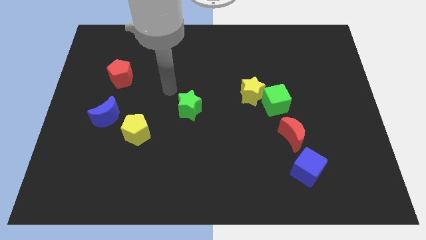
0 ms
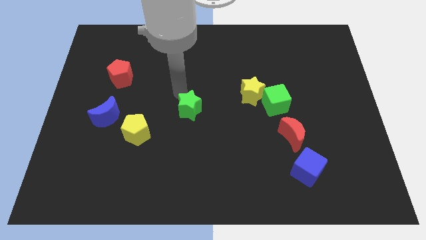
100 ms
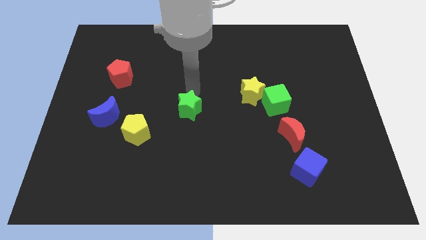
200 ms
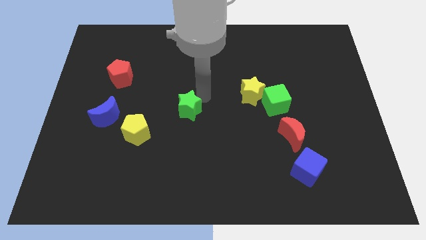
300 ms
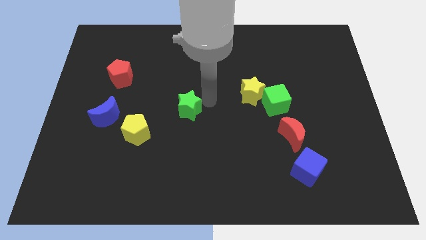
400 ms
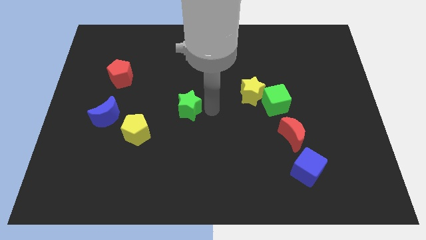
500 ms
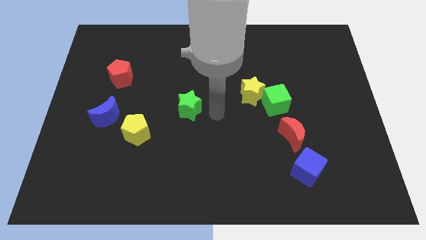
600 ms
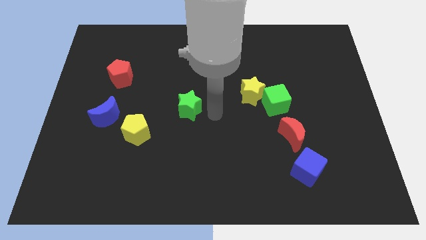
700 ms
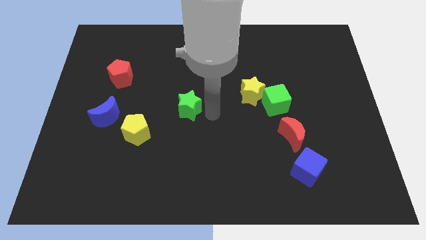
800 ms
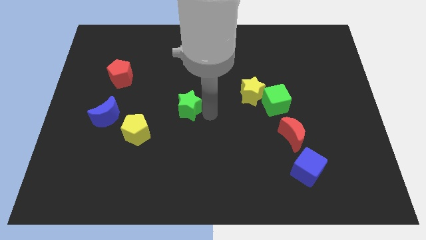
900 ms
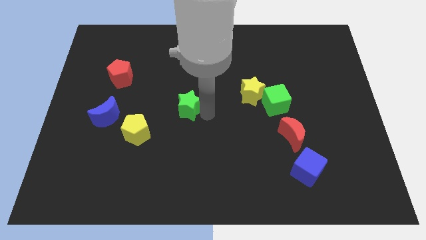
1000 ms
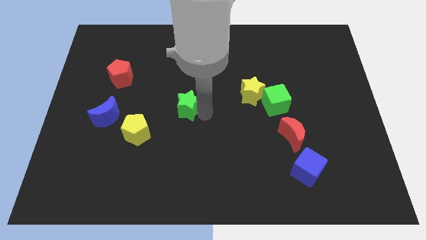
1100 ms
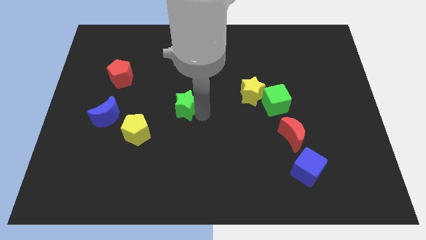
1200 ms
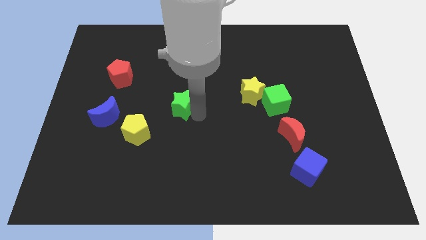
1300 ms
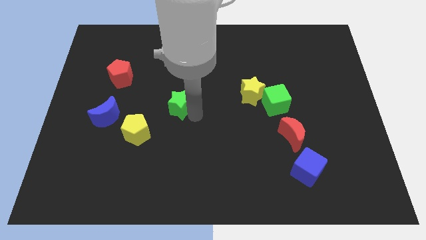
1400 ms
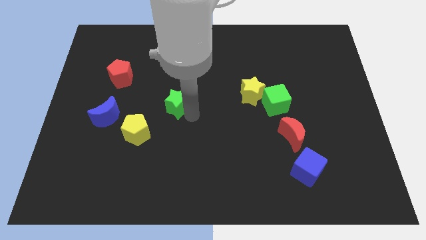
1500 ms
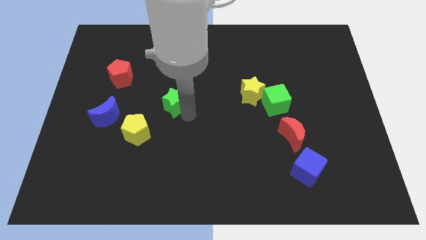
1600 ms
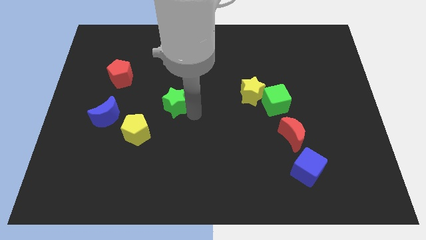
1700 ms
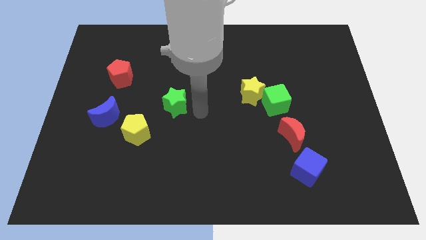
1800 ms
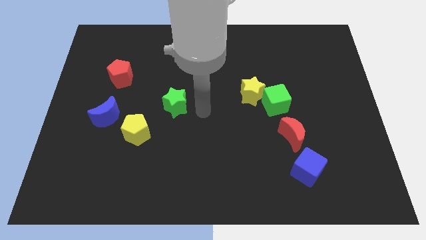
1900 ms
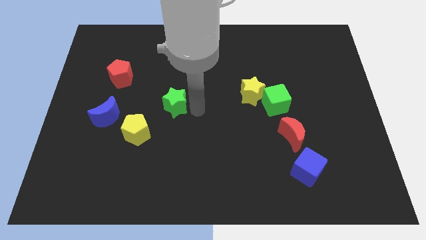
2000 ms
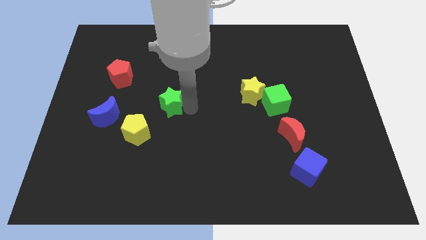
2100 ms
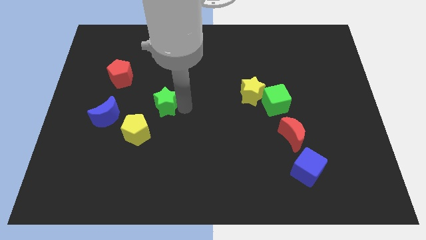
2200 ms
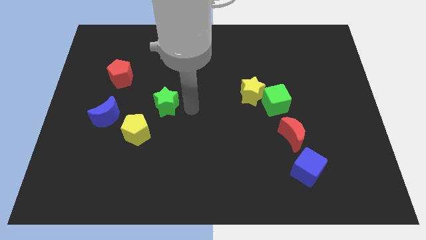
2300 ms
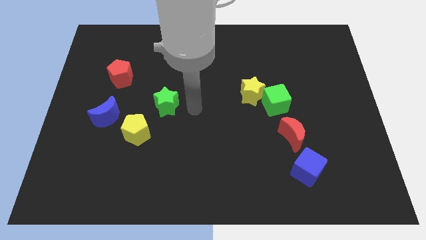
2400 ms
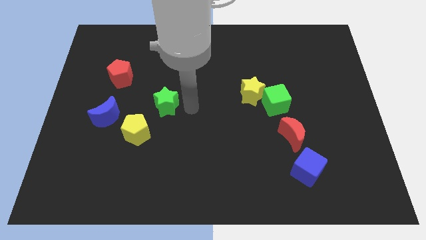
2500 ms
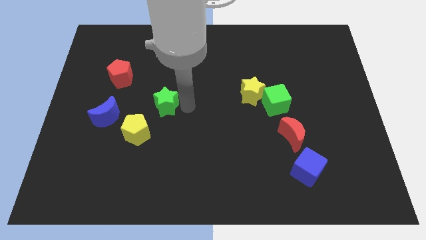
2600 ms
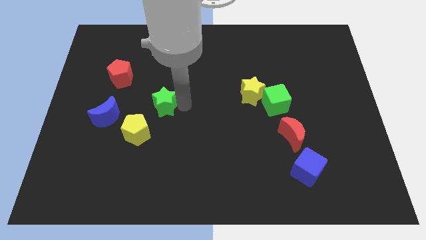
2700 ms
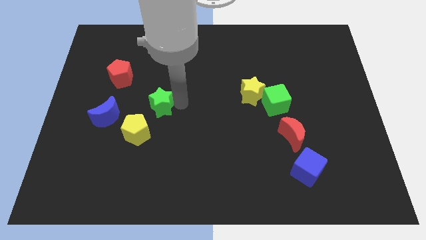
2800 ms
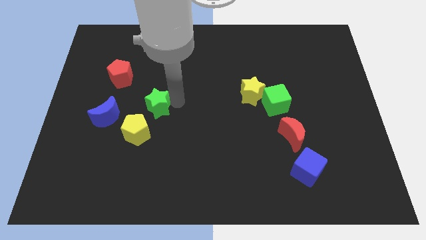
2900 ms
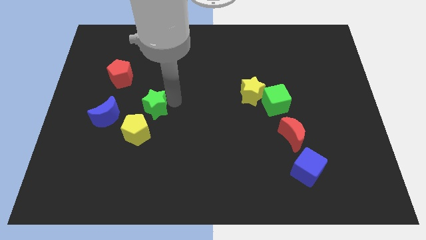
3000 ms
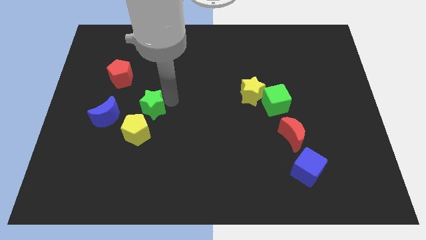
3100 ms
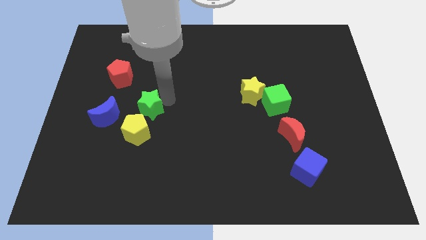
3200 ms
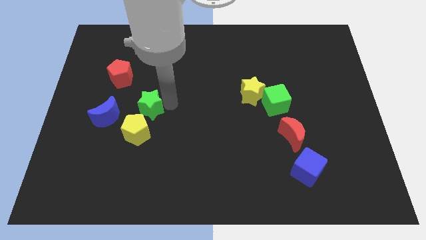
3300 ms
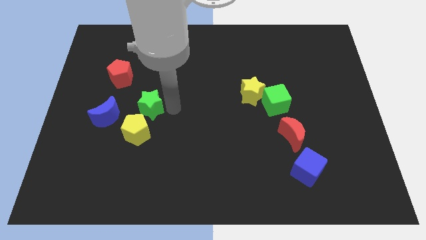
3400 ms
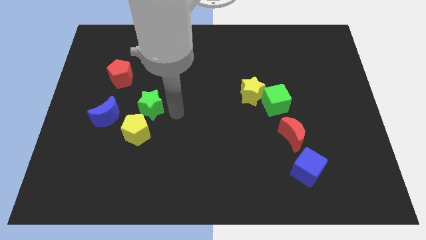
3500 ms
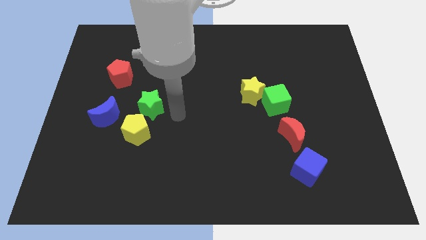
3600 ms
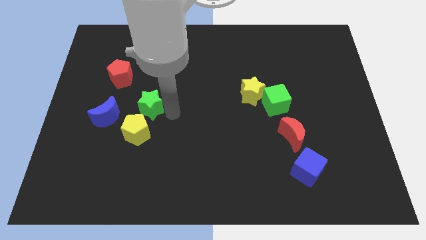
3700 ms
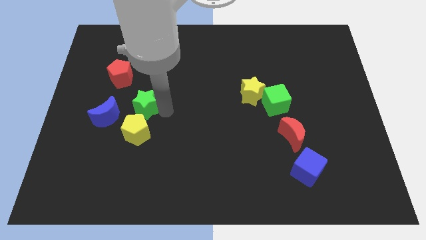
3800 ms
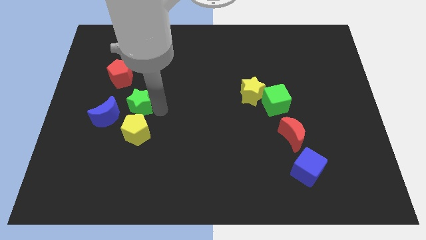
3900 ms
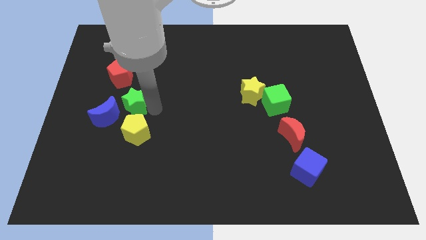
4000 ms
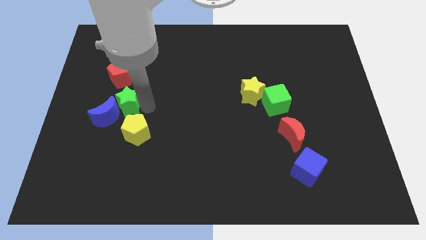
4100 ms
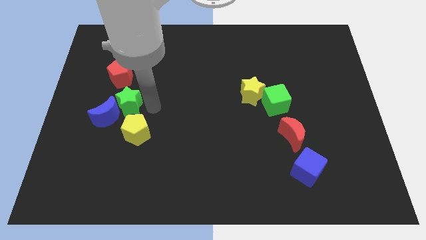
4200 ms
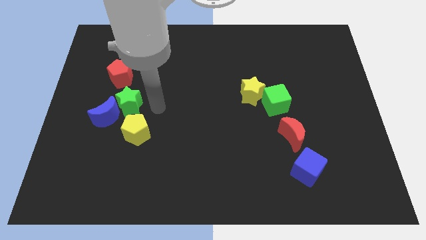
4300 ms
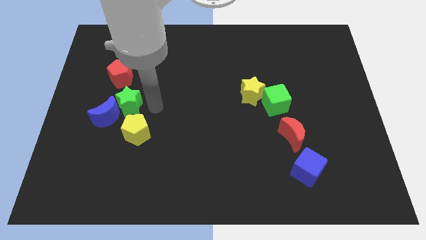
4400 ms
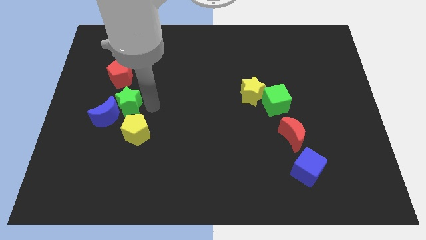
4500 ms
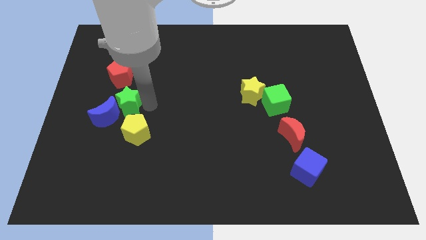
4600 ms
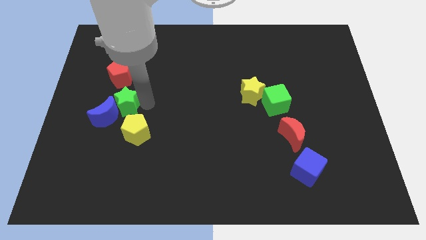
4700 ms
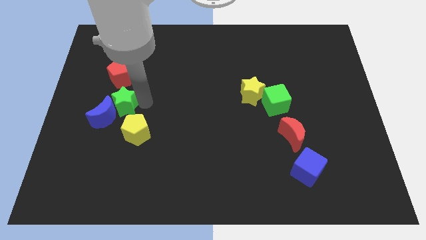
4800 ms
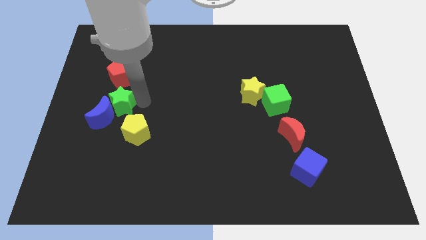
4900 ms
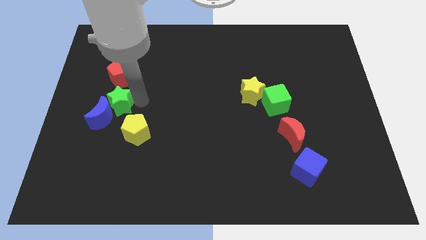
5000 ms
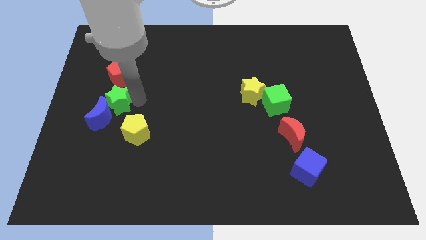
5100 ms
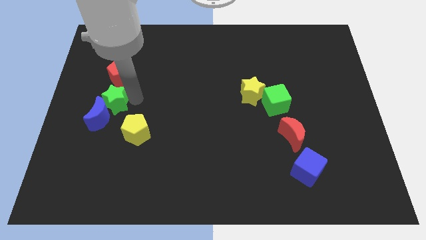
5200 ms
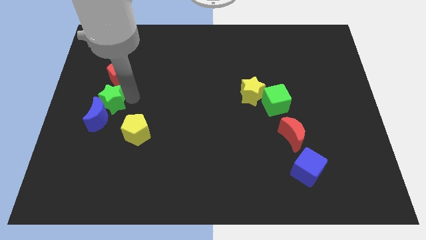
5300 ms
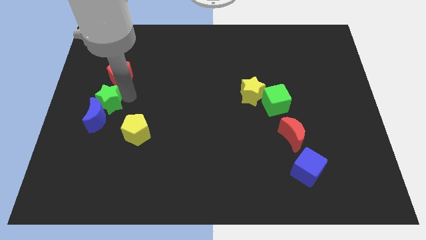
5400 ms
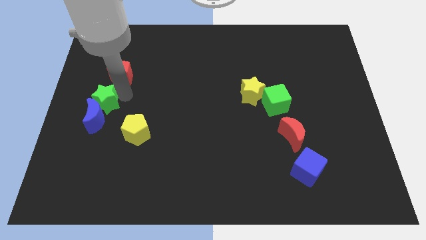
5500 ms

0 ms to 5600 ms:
slide the green star to the left side

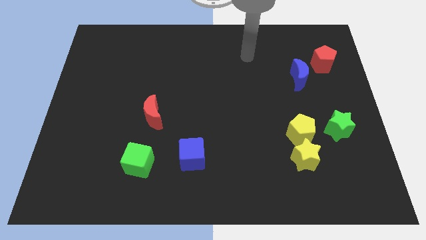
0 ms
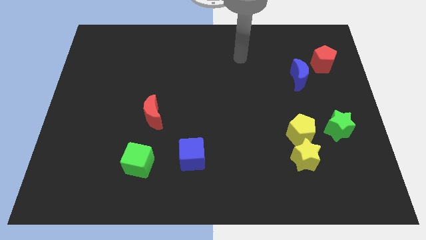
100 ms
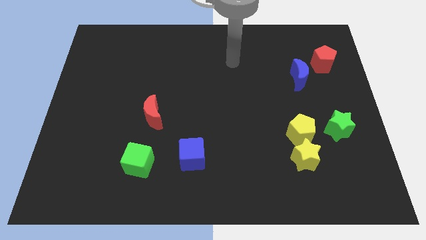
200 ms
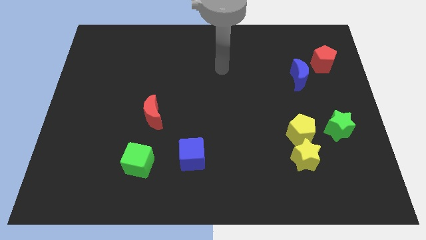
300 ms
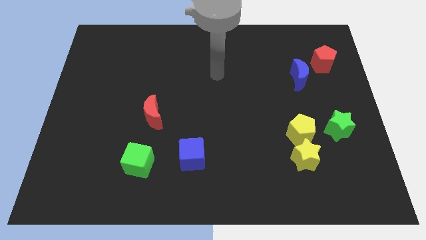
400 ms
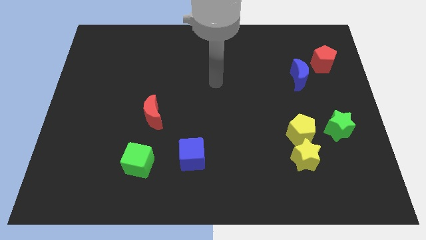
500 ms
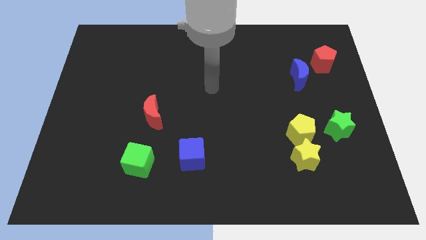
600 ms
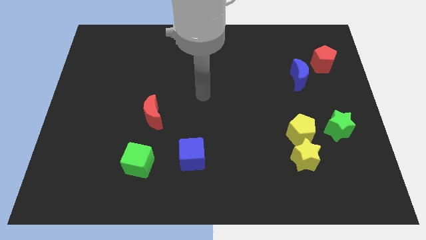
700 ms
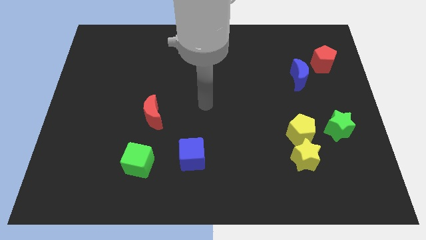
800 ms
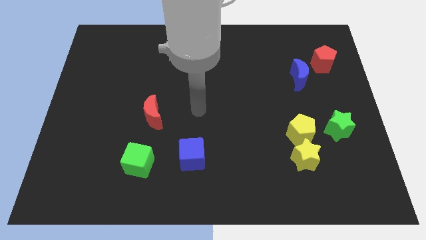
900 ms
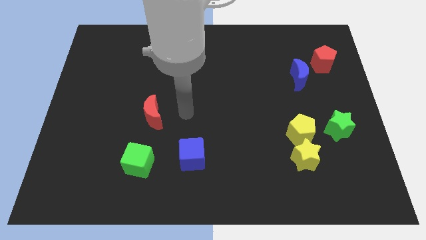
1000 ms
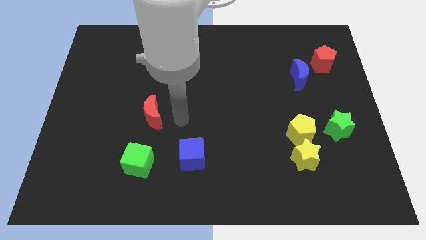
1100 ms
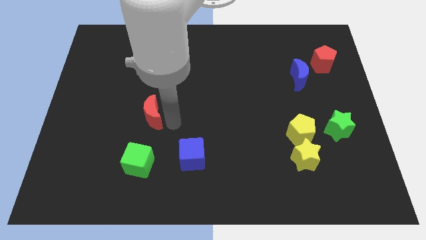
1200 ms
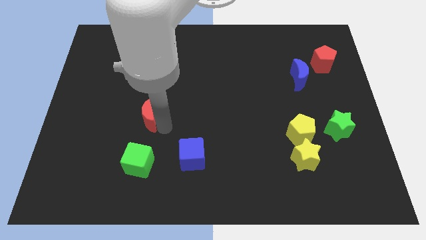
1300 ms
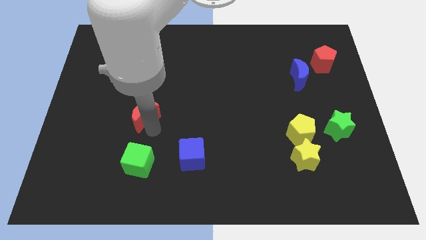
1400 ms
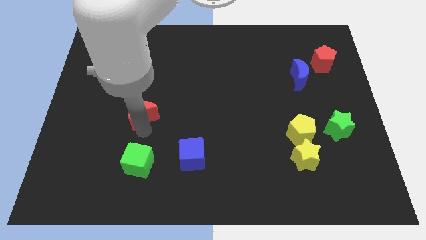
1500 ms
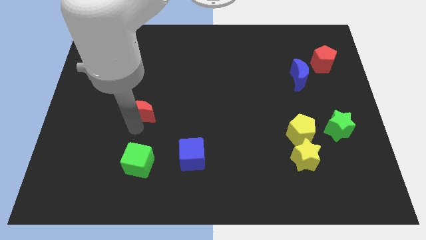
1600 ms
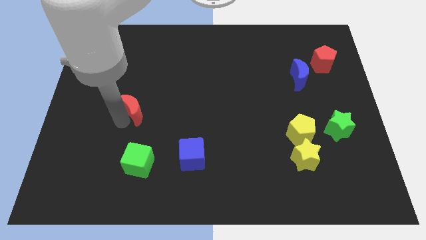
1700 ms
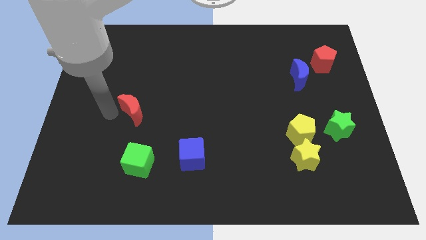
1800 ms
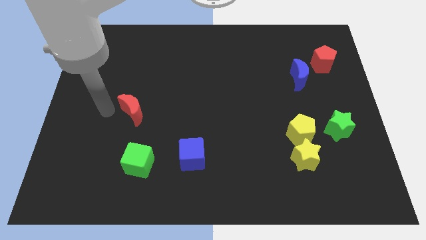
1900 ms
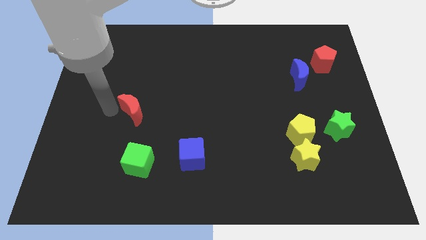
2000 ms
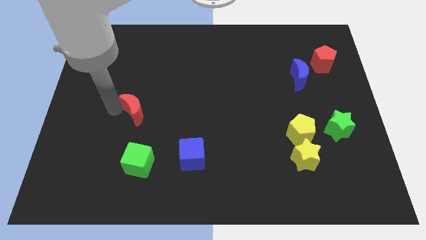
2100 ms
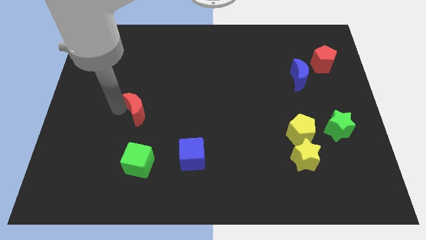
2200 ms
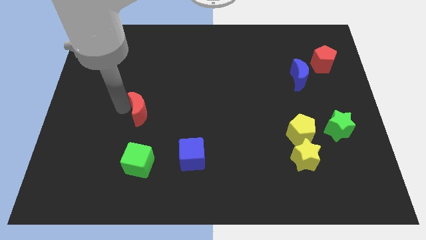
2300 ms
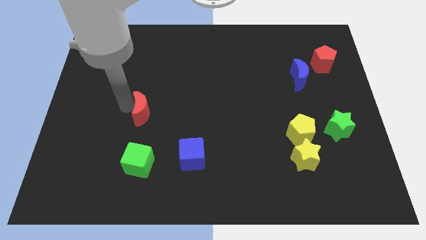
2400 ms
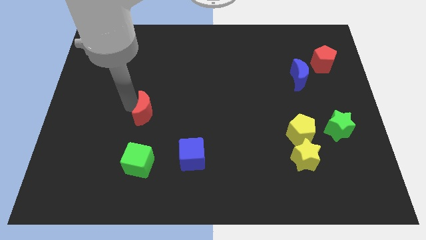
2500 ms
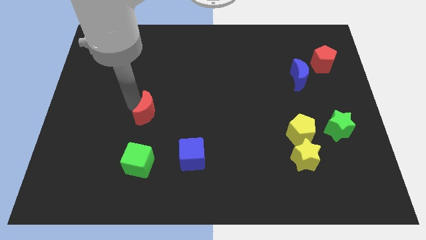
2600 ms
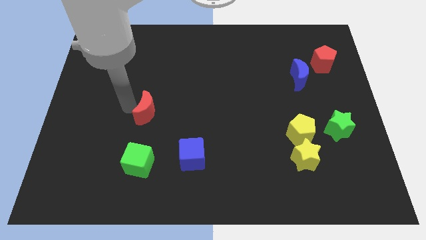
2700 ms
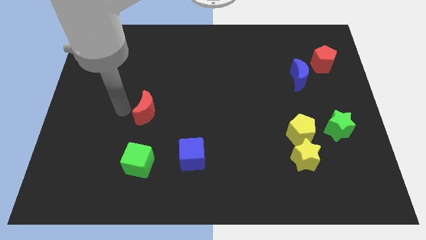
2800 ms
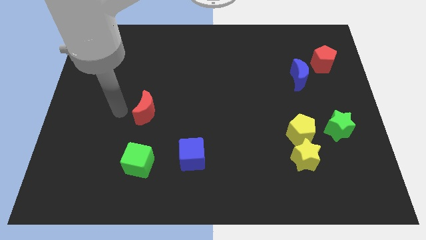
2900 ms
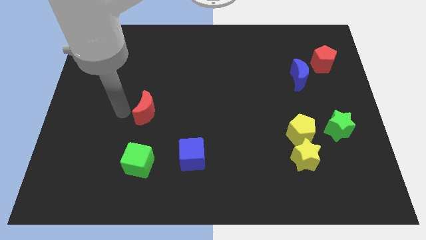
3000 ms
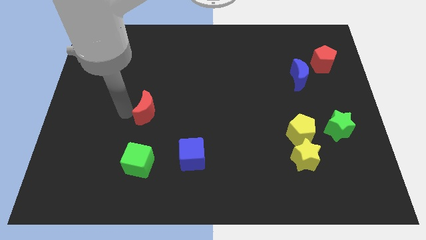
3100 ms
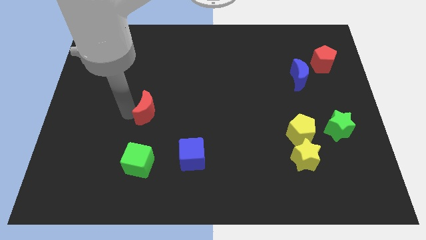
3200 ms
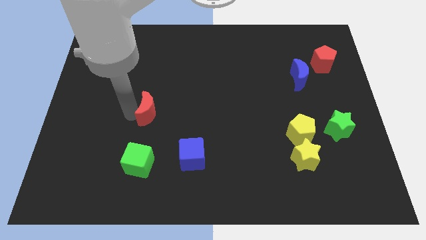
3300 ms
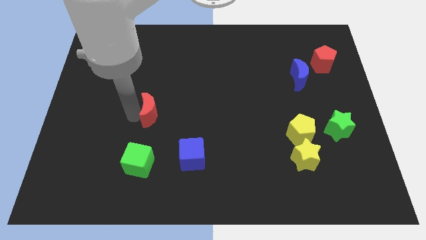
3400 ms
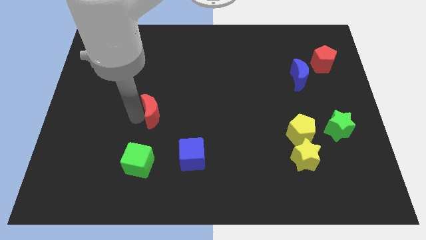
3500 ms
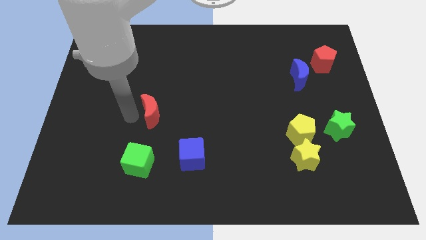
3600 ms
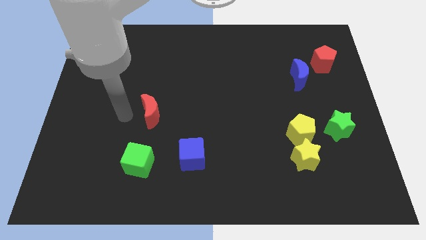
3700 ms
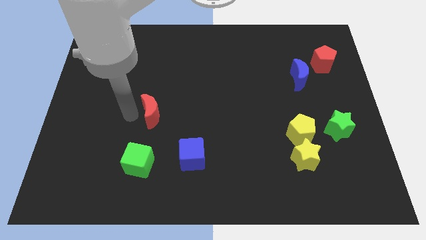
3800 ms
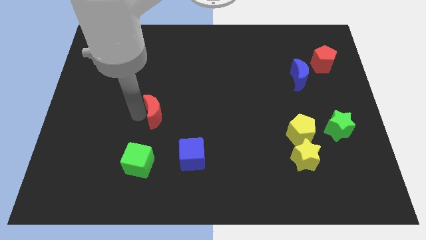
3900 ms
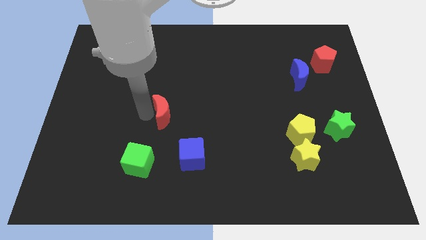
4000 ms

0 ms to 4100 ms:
slide the red moon to the middle of the board
